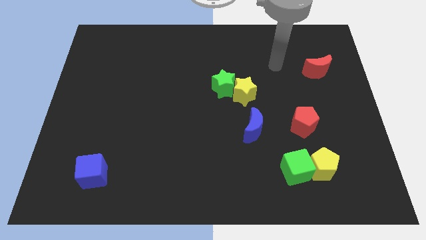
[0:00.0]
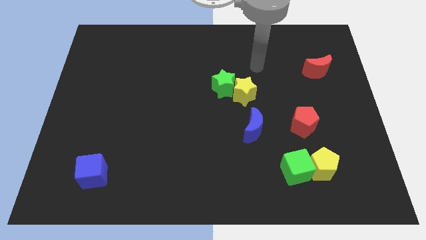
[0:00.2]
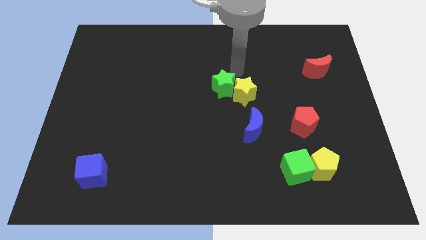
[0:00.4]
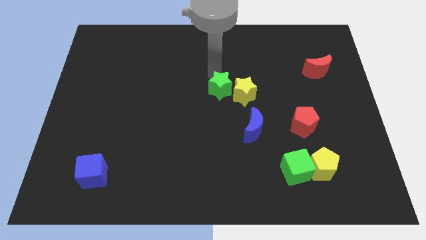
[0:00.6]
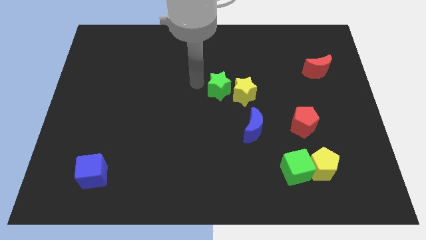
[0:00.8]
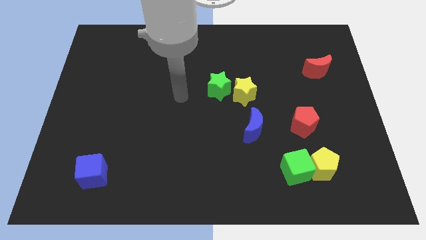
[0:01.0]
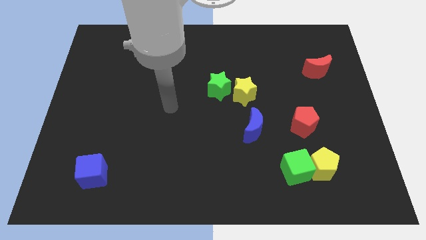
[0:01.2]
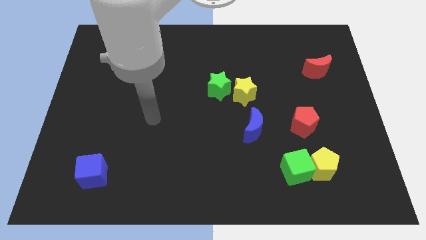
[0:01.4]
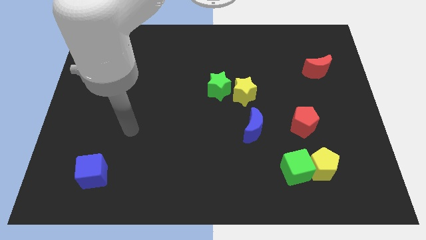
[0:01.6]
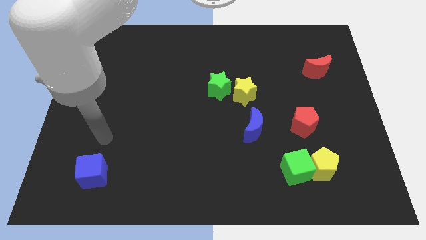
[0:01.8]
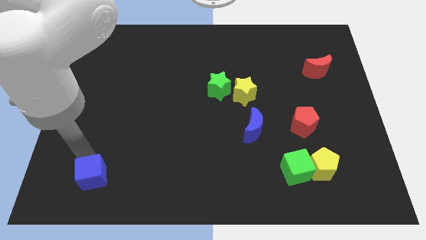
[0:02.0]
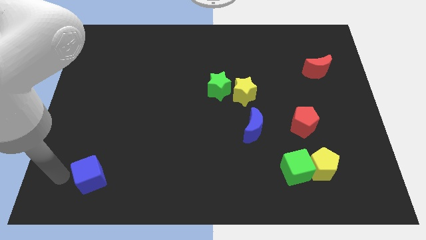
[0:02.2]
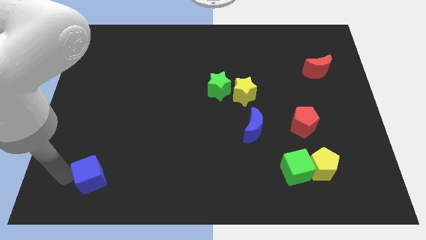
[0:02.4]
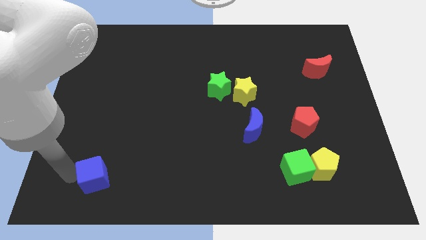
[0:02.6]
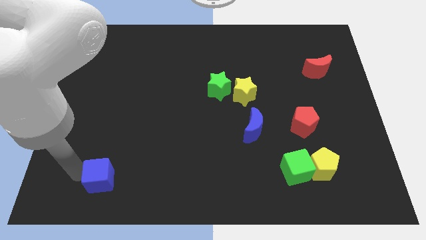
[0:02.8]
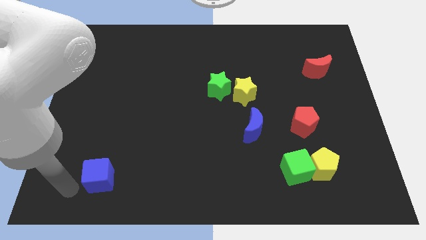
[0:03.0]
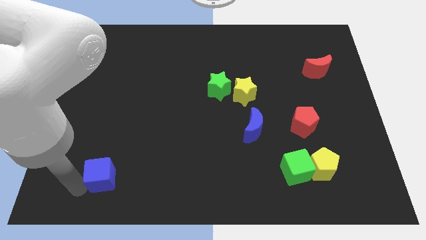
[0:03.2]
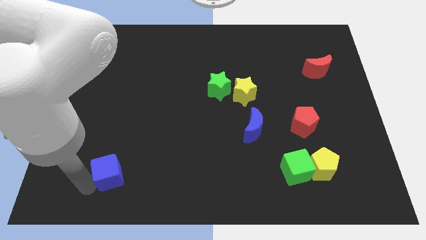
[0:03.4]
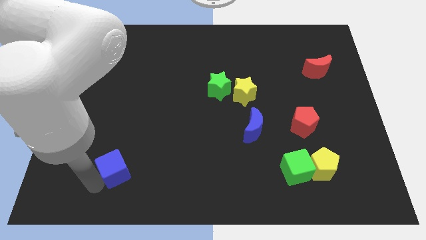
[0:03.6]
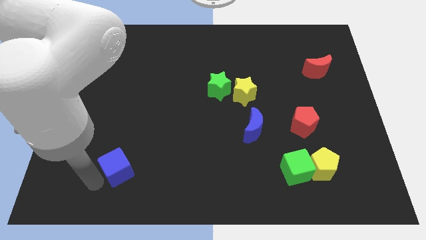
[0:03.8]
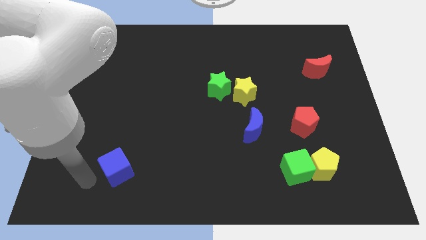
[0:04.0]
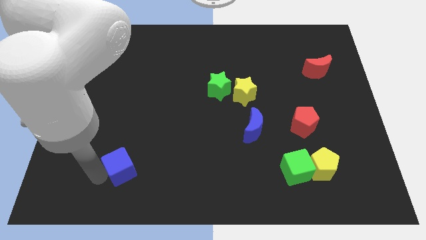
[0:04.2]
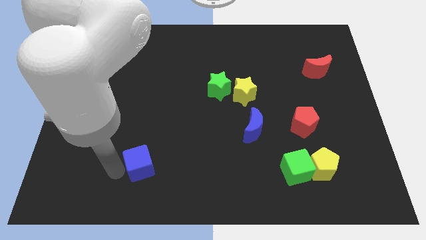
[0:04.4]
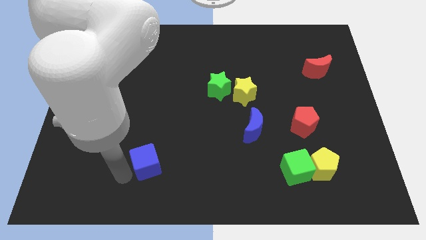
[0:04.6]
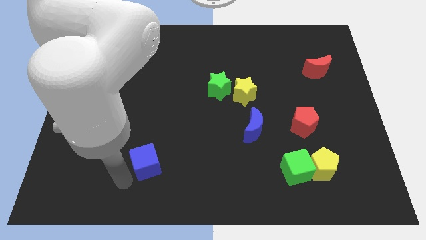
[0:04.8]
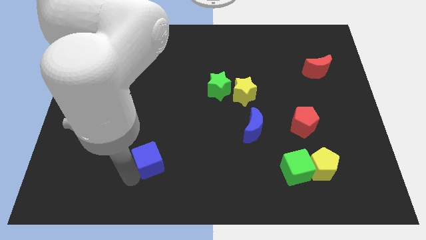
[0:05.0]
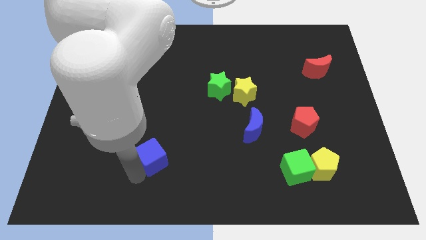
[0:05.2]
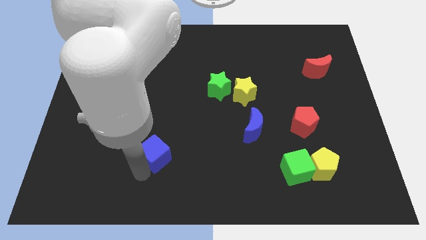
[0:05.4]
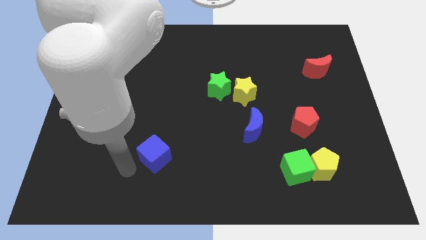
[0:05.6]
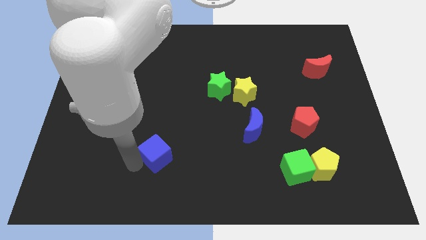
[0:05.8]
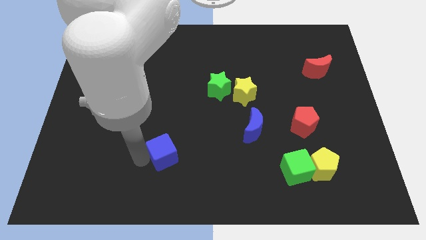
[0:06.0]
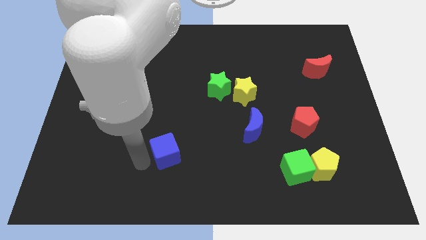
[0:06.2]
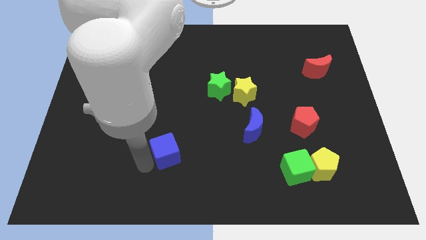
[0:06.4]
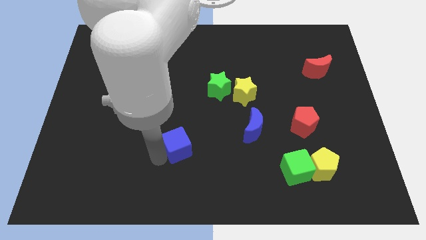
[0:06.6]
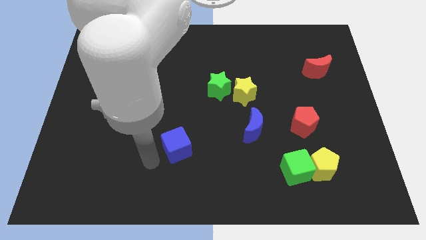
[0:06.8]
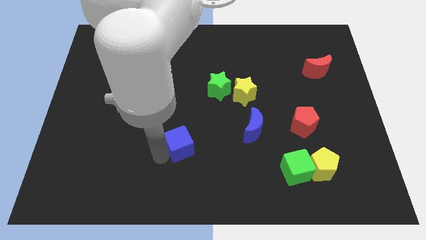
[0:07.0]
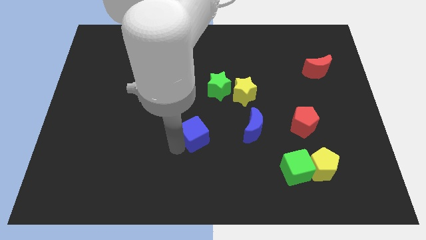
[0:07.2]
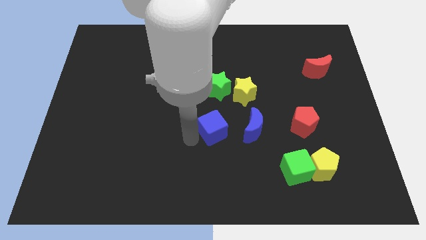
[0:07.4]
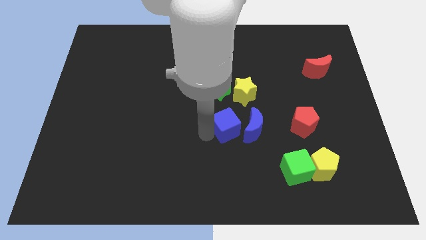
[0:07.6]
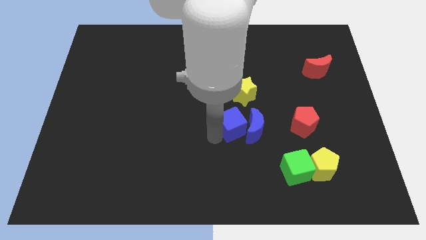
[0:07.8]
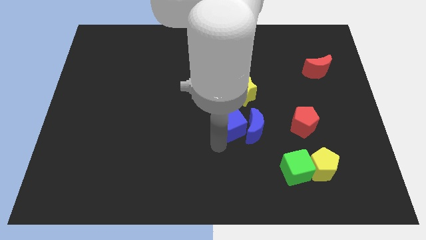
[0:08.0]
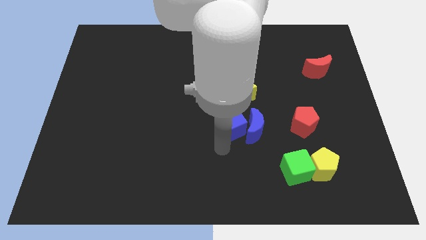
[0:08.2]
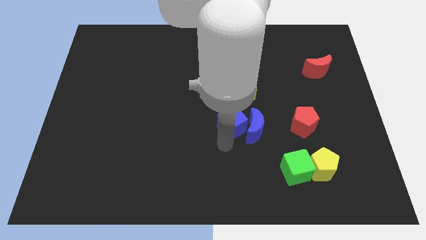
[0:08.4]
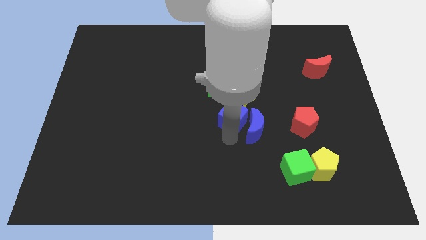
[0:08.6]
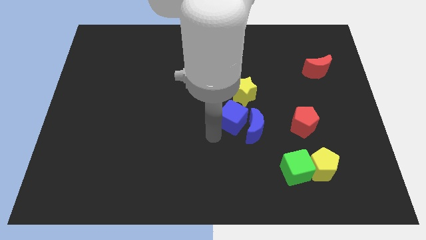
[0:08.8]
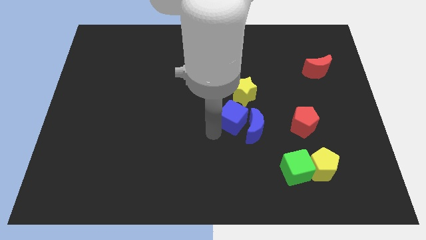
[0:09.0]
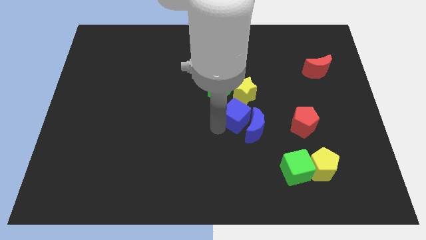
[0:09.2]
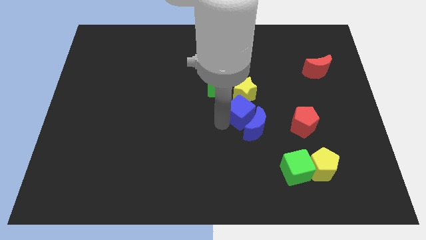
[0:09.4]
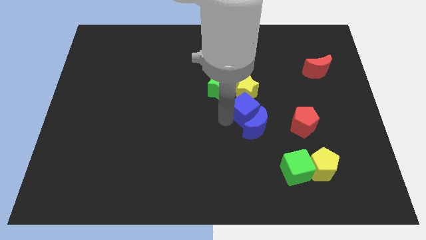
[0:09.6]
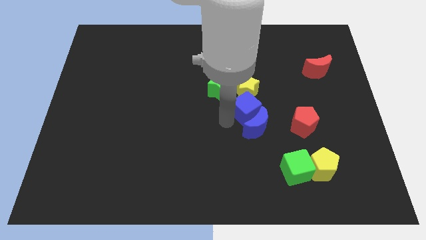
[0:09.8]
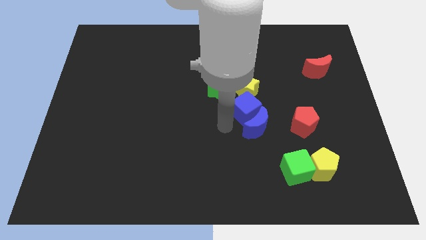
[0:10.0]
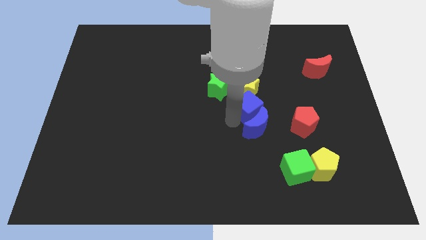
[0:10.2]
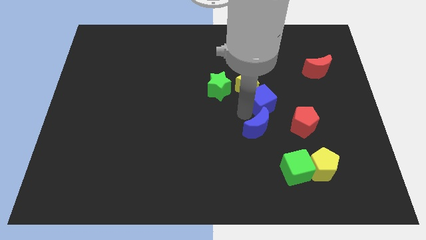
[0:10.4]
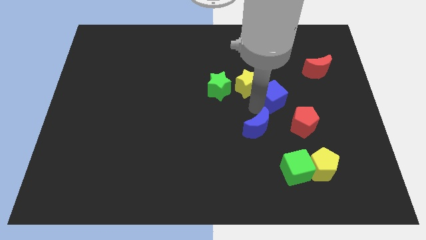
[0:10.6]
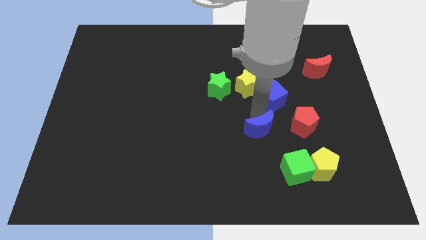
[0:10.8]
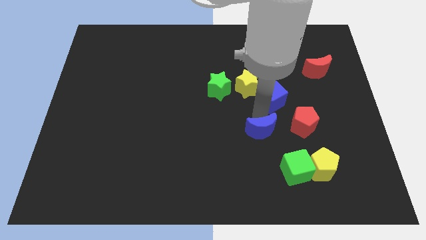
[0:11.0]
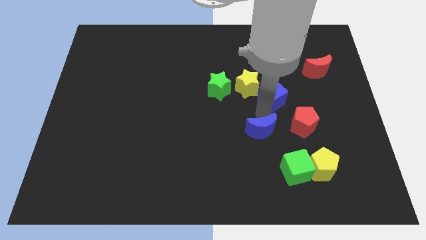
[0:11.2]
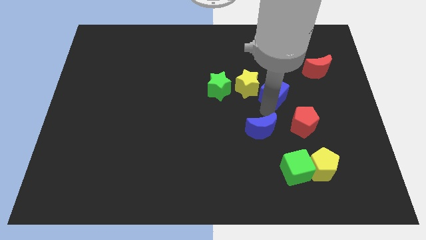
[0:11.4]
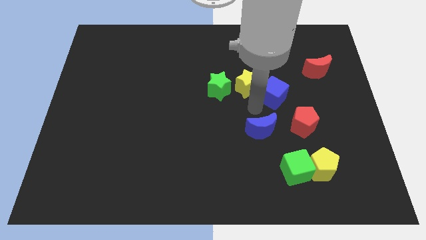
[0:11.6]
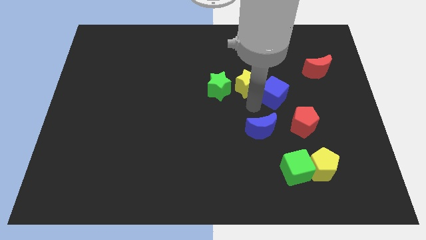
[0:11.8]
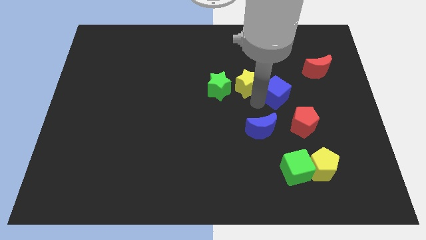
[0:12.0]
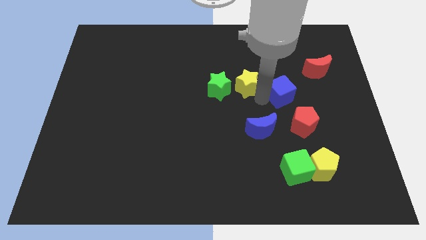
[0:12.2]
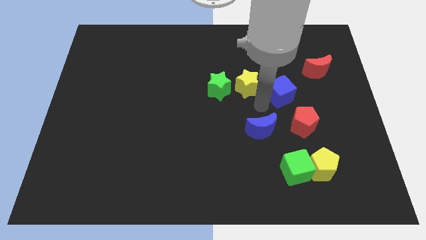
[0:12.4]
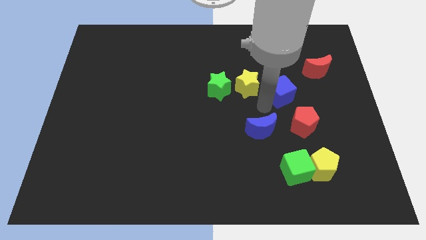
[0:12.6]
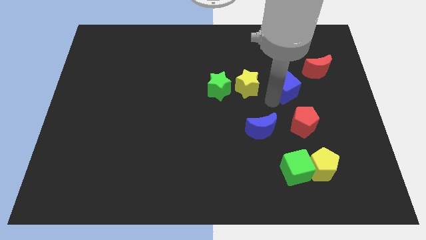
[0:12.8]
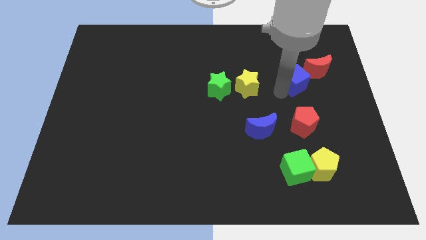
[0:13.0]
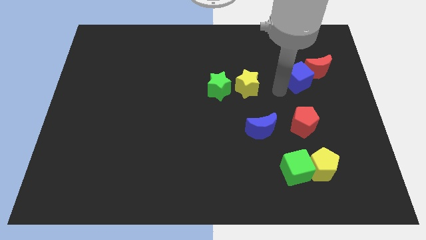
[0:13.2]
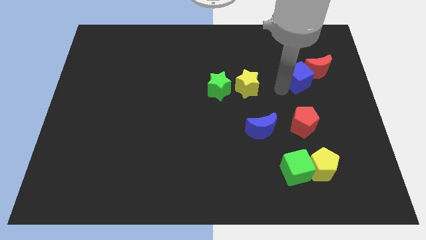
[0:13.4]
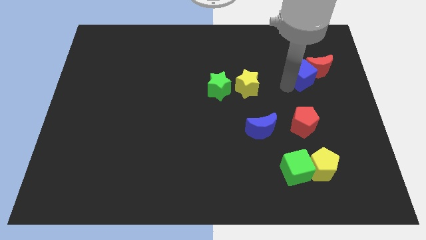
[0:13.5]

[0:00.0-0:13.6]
push the blue cube towards the red moon
